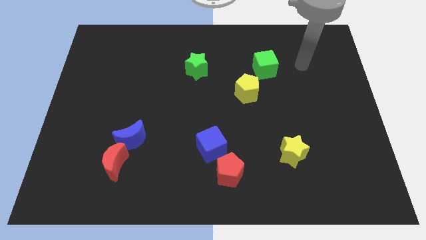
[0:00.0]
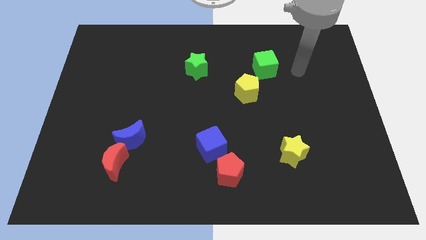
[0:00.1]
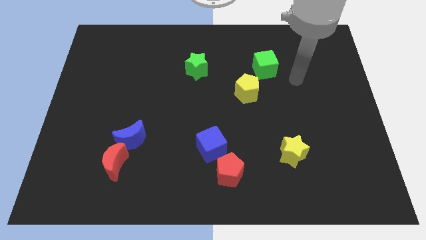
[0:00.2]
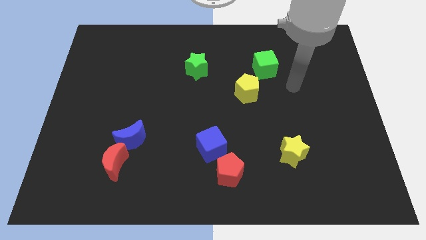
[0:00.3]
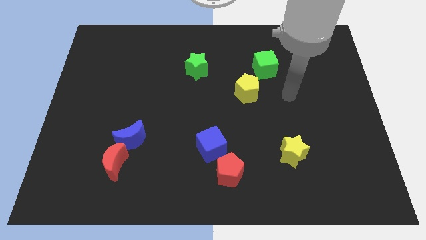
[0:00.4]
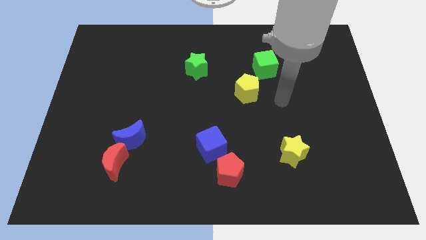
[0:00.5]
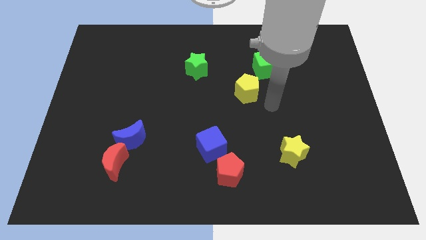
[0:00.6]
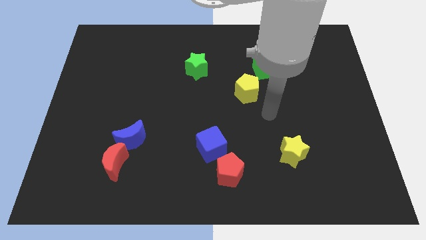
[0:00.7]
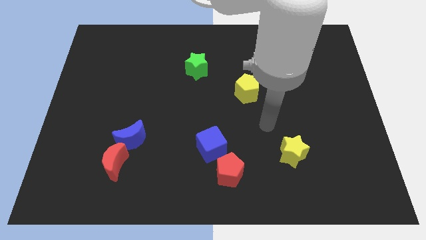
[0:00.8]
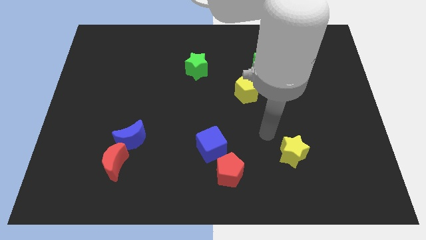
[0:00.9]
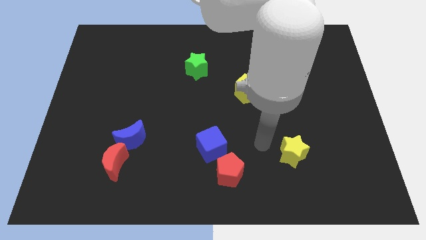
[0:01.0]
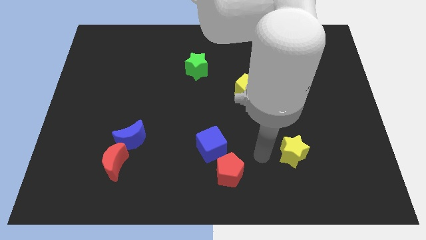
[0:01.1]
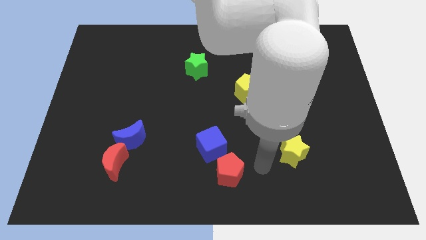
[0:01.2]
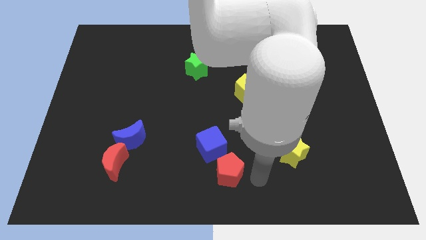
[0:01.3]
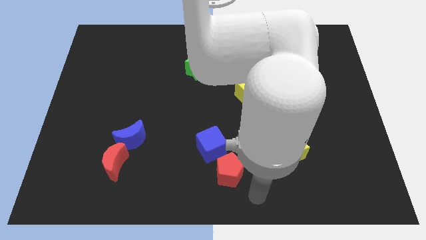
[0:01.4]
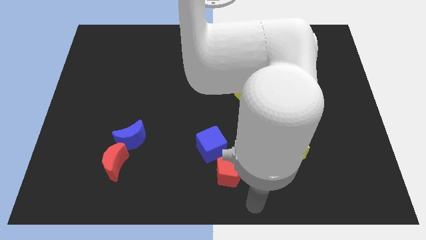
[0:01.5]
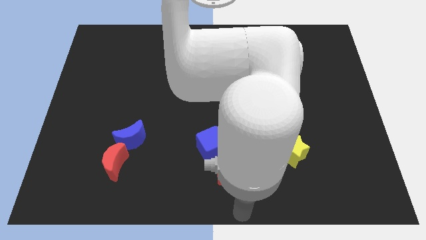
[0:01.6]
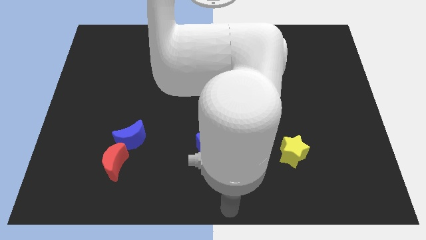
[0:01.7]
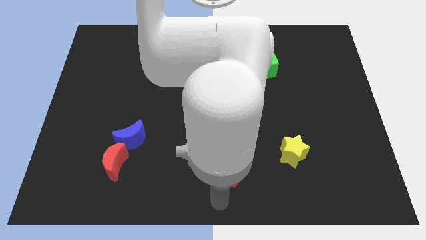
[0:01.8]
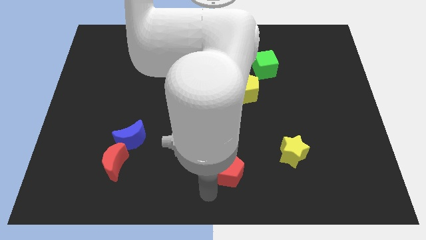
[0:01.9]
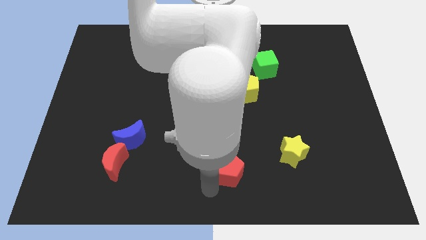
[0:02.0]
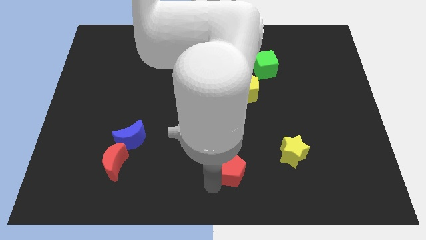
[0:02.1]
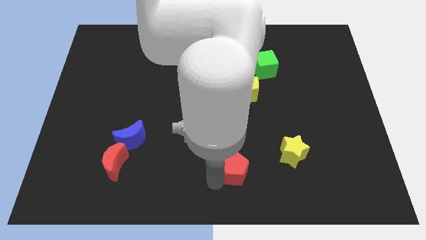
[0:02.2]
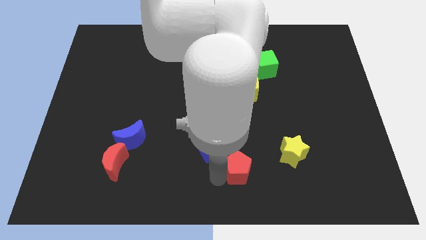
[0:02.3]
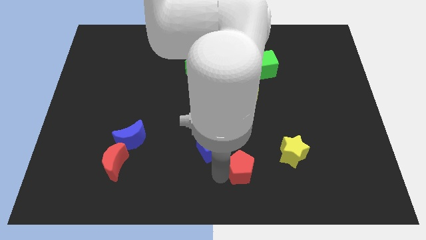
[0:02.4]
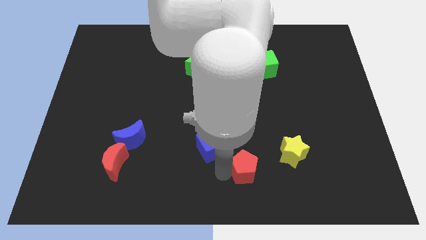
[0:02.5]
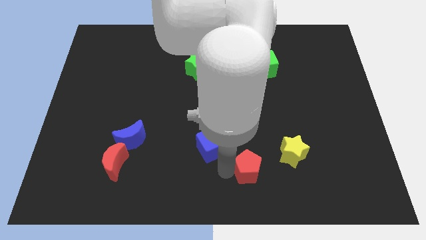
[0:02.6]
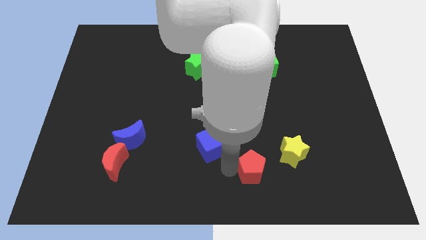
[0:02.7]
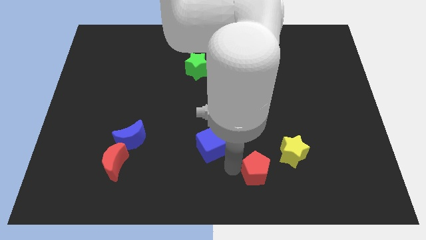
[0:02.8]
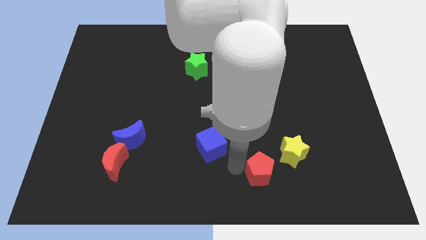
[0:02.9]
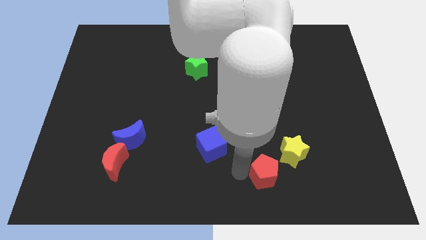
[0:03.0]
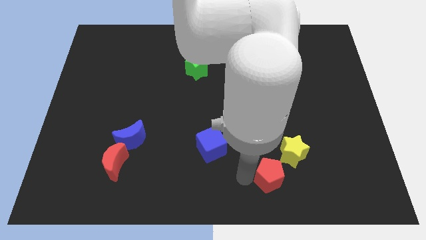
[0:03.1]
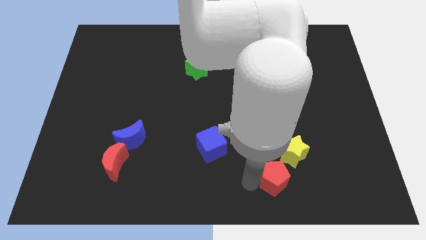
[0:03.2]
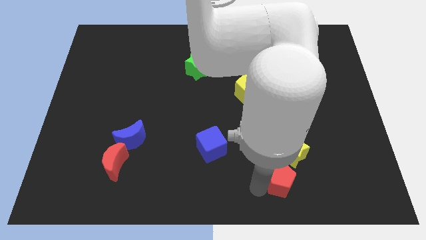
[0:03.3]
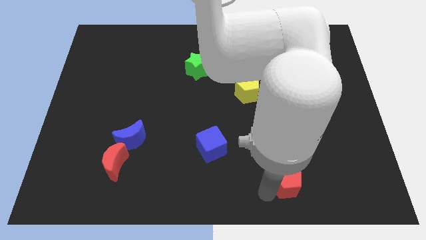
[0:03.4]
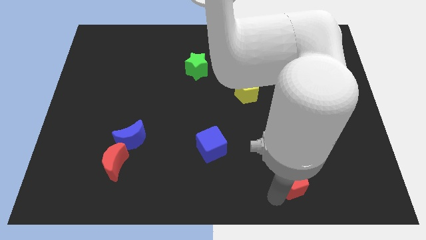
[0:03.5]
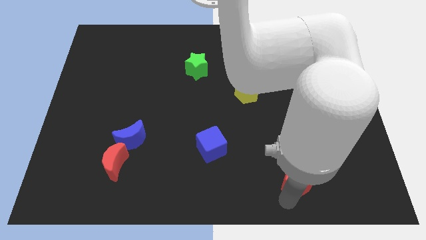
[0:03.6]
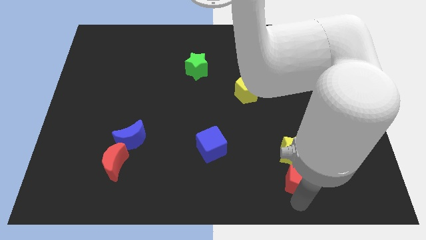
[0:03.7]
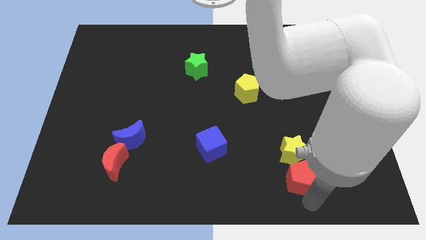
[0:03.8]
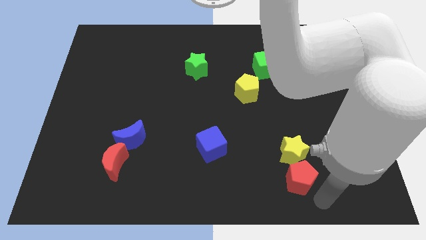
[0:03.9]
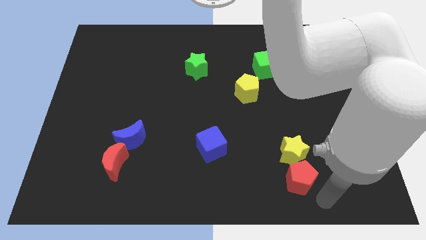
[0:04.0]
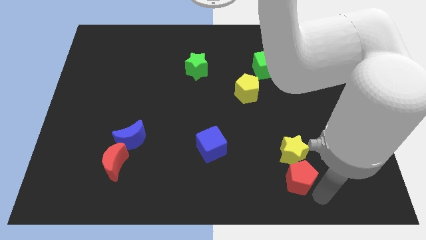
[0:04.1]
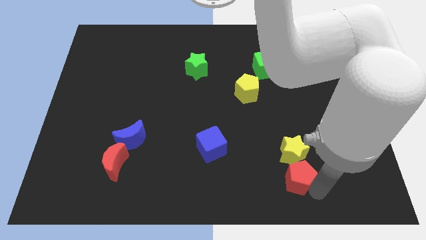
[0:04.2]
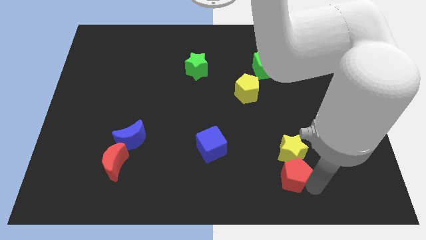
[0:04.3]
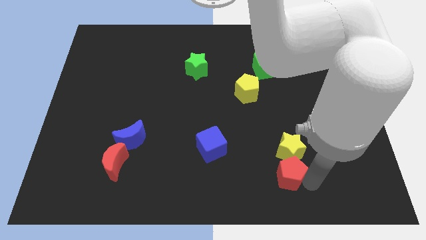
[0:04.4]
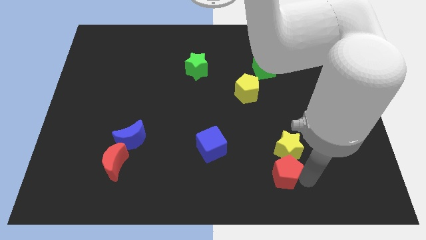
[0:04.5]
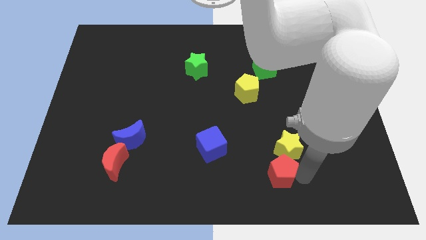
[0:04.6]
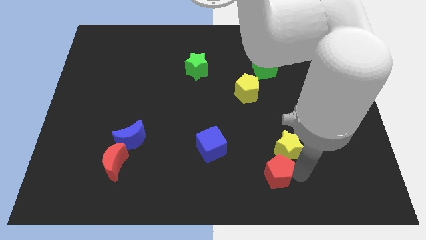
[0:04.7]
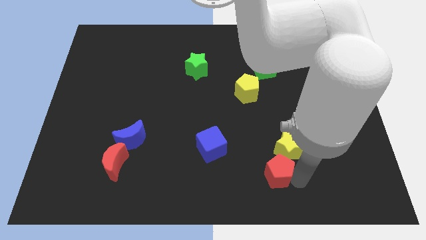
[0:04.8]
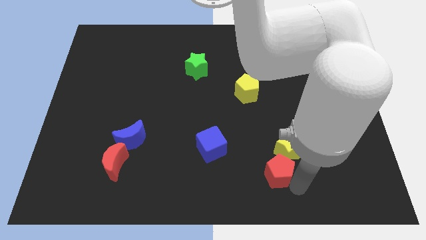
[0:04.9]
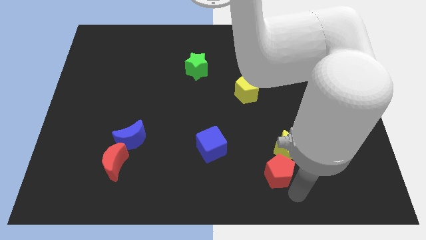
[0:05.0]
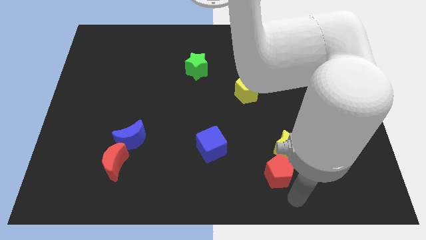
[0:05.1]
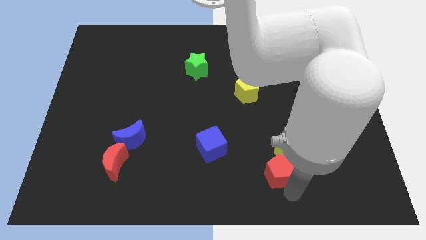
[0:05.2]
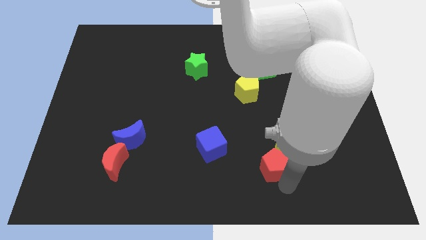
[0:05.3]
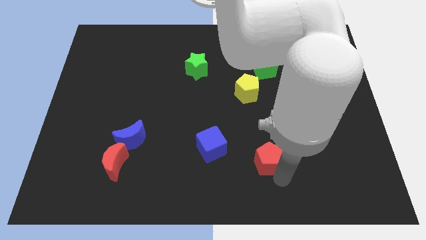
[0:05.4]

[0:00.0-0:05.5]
put the red pentagon to the right side of the blue cube

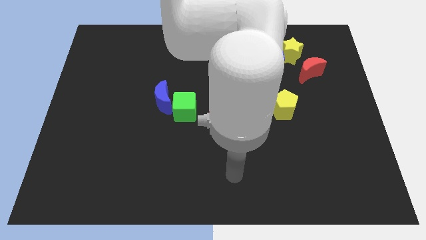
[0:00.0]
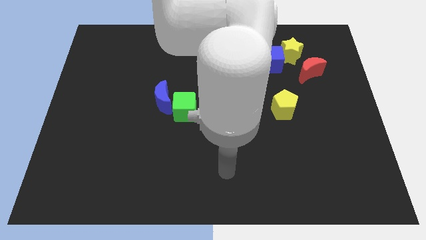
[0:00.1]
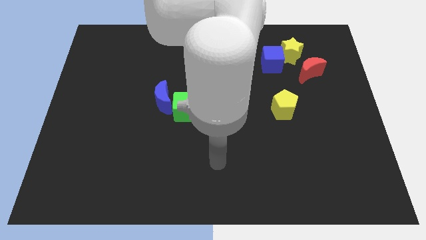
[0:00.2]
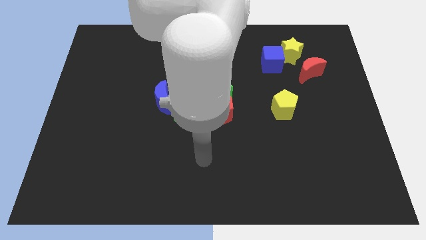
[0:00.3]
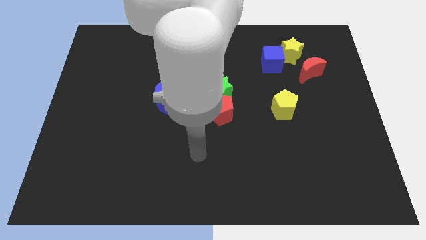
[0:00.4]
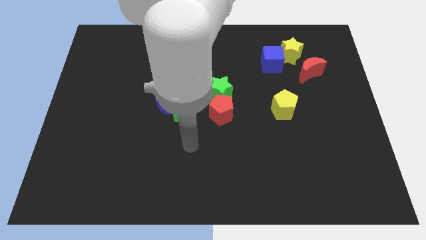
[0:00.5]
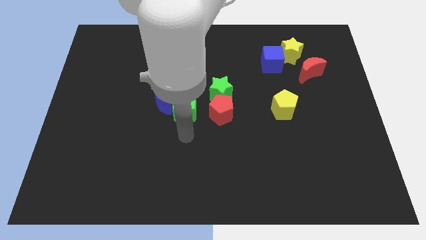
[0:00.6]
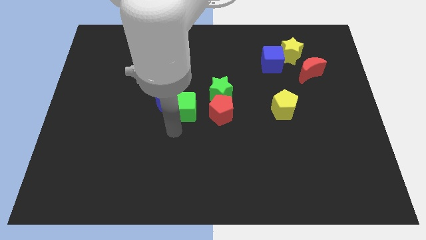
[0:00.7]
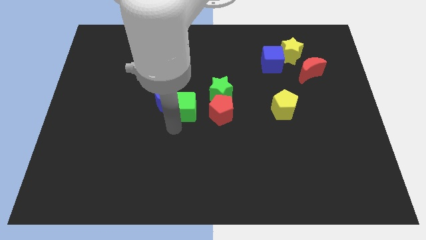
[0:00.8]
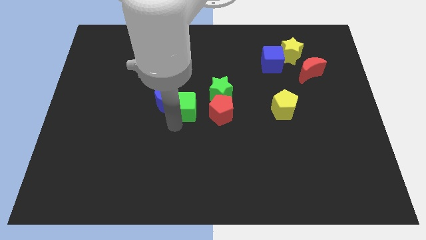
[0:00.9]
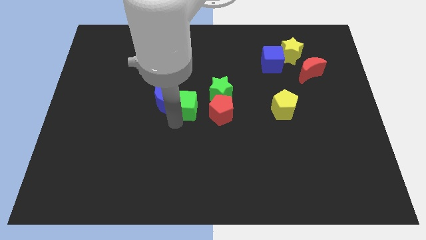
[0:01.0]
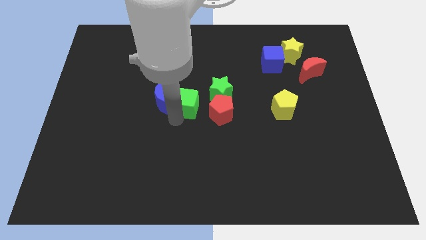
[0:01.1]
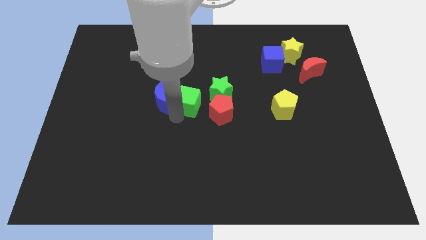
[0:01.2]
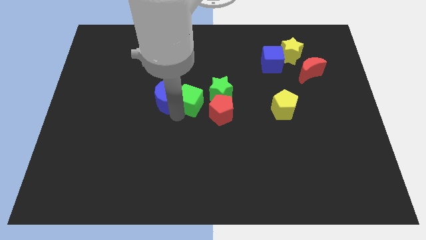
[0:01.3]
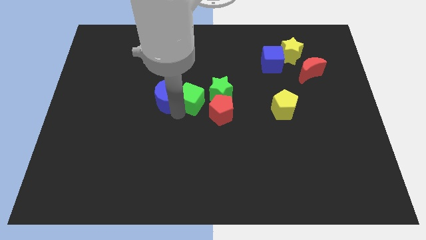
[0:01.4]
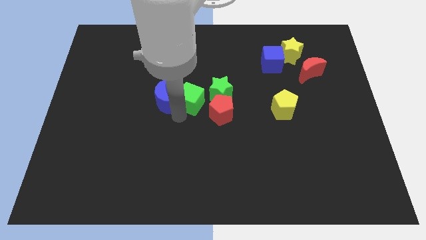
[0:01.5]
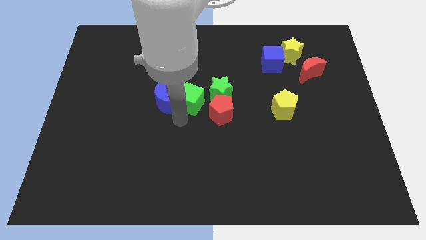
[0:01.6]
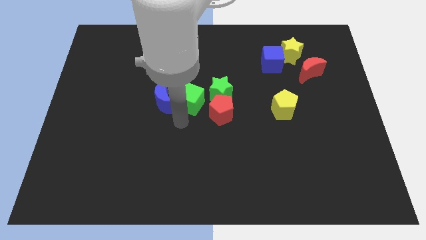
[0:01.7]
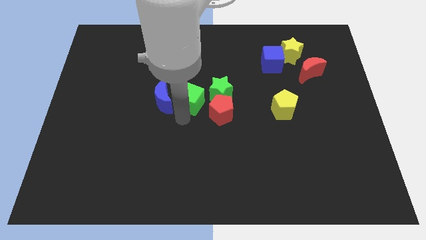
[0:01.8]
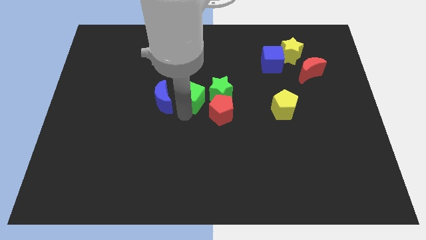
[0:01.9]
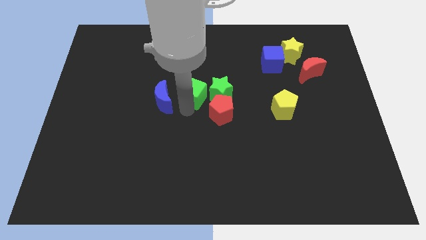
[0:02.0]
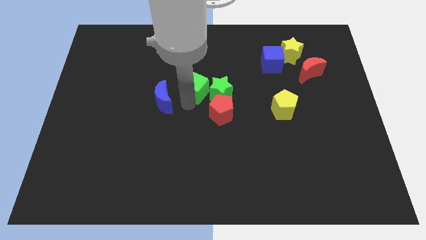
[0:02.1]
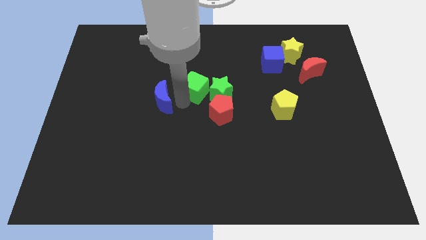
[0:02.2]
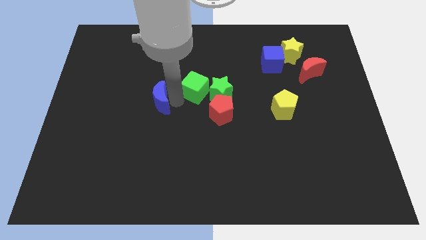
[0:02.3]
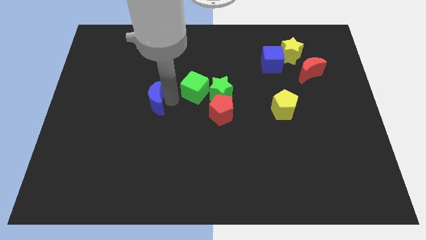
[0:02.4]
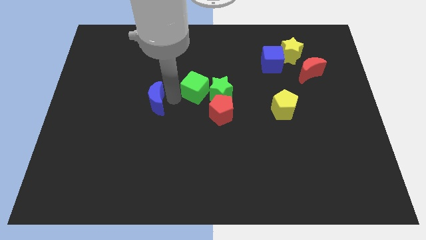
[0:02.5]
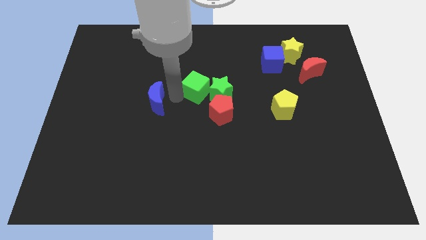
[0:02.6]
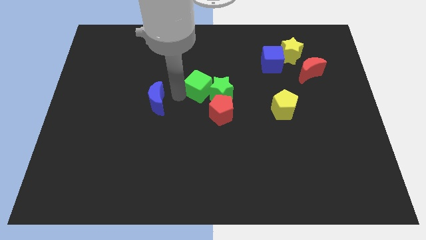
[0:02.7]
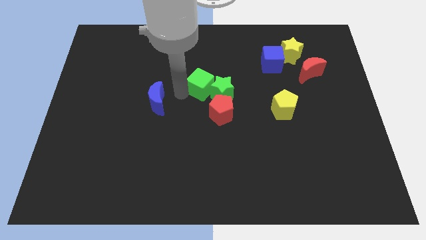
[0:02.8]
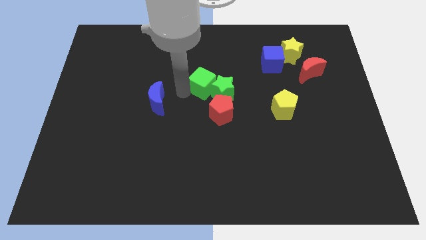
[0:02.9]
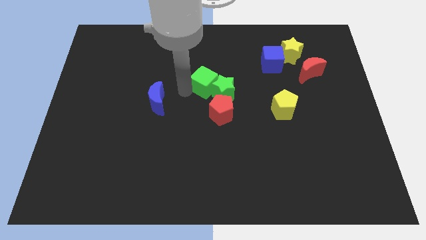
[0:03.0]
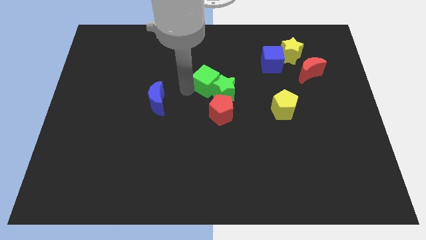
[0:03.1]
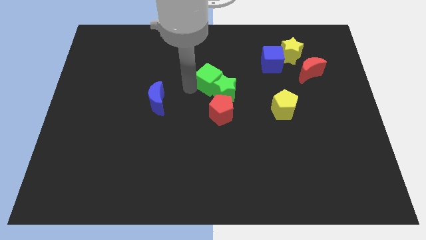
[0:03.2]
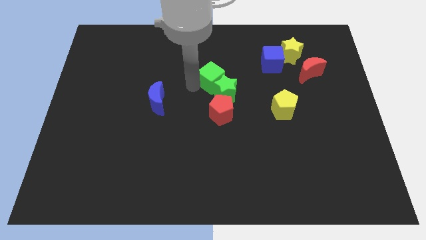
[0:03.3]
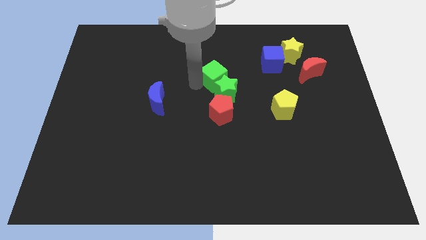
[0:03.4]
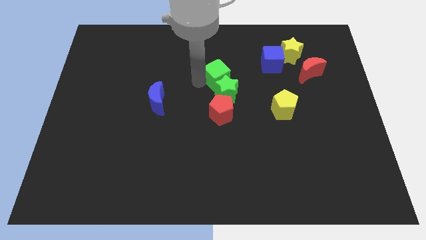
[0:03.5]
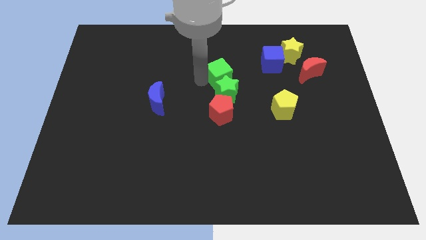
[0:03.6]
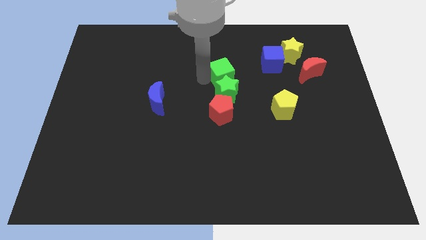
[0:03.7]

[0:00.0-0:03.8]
put the green cube to the top right of the green star
